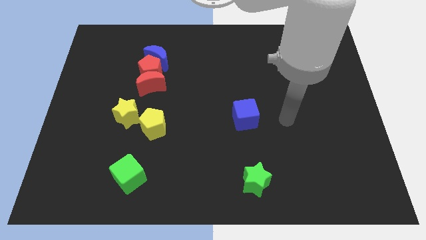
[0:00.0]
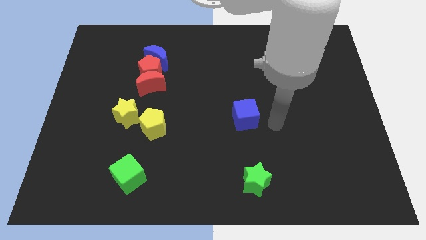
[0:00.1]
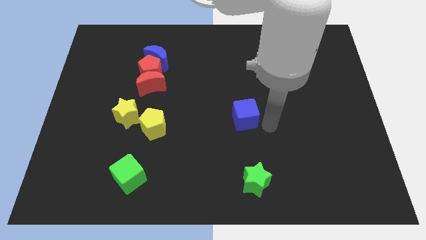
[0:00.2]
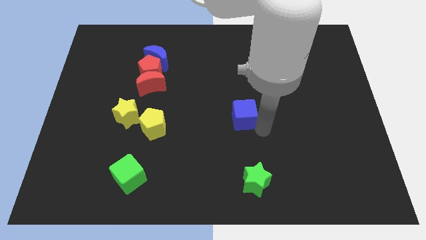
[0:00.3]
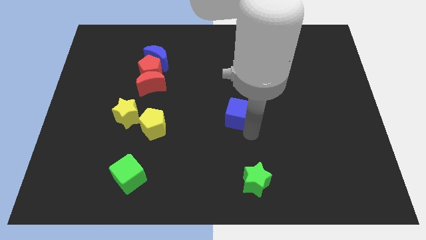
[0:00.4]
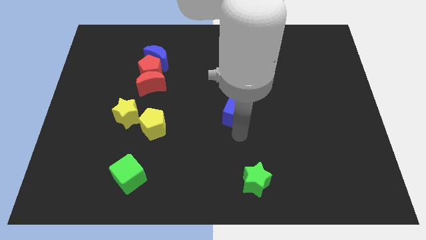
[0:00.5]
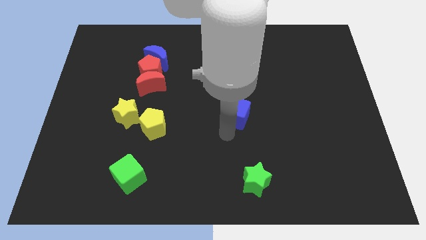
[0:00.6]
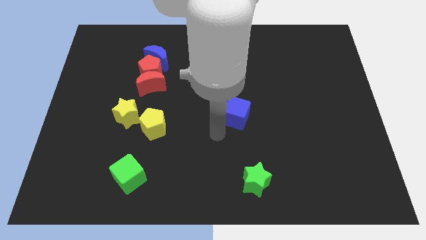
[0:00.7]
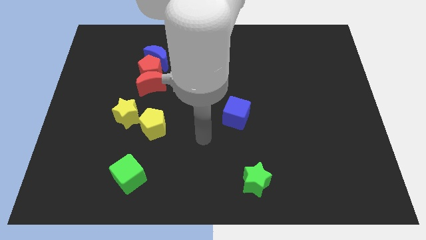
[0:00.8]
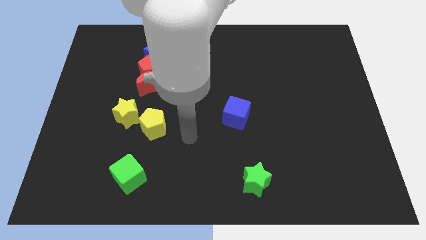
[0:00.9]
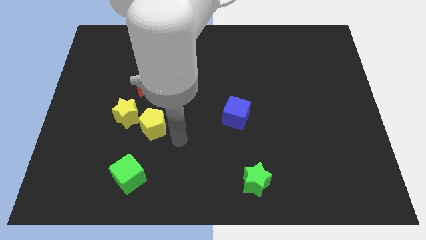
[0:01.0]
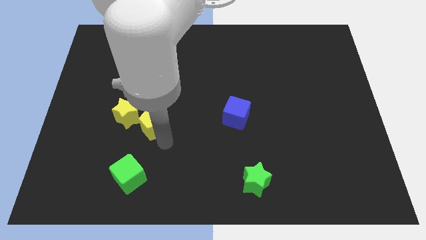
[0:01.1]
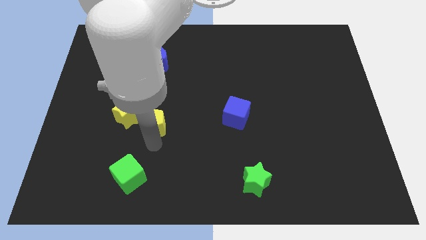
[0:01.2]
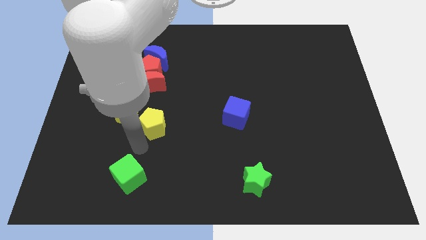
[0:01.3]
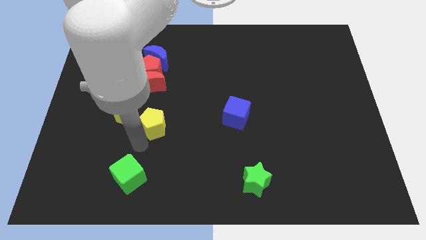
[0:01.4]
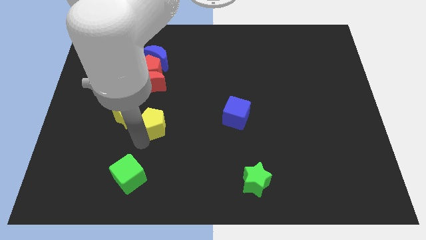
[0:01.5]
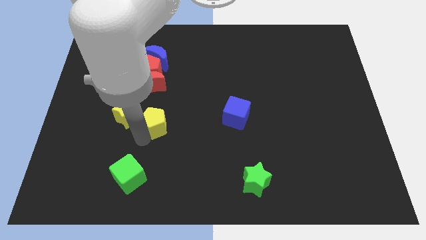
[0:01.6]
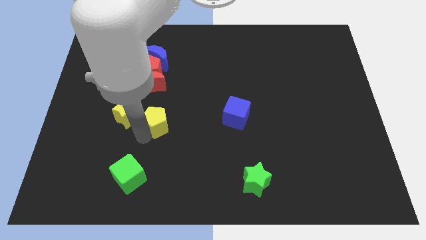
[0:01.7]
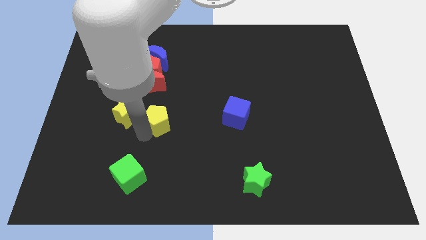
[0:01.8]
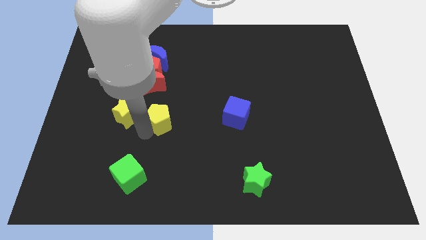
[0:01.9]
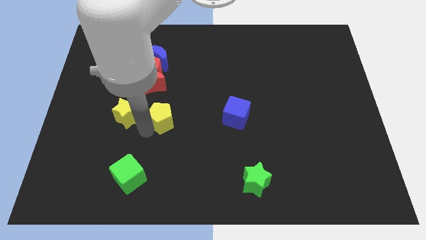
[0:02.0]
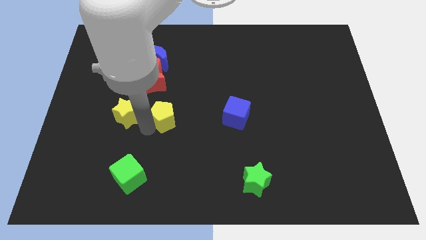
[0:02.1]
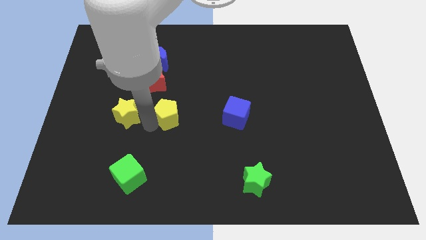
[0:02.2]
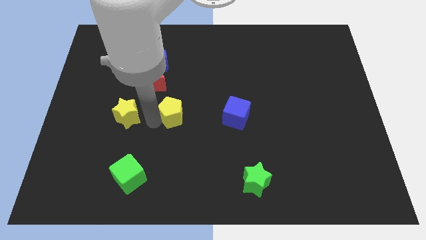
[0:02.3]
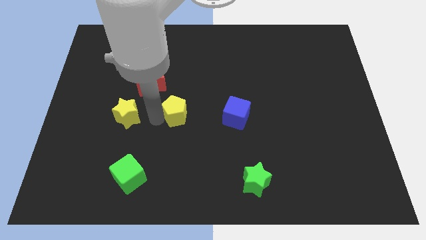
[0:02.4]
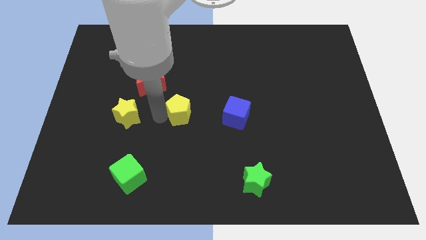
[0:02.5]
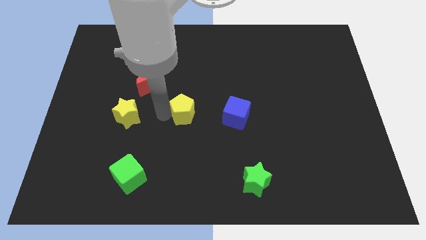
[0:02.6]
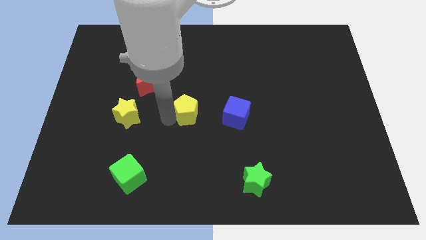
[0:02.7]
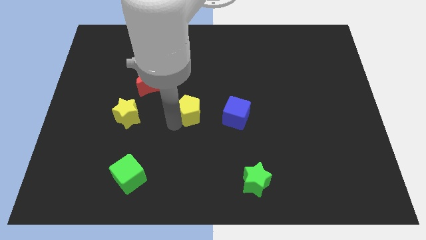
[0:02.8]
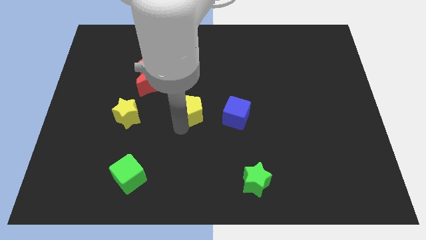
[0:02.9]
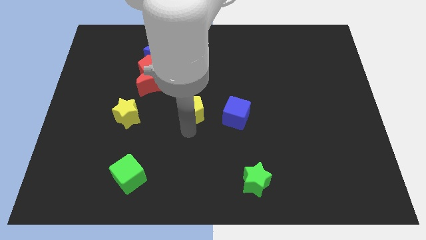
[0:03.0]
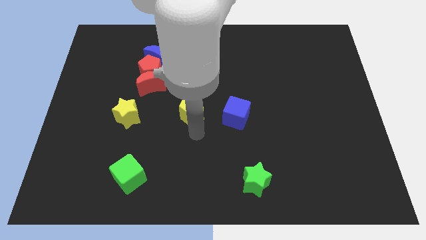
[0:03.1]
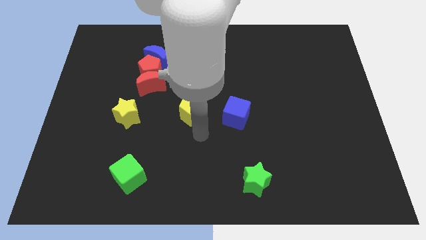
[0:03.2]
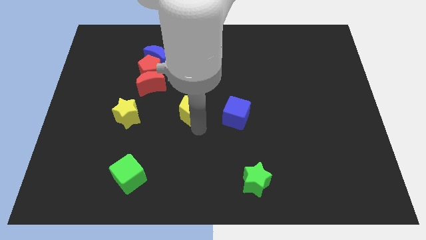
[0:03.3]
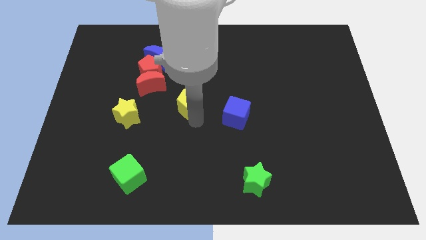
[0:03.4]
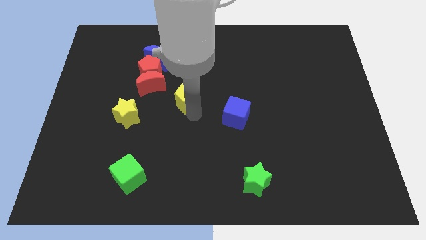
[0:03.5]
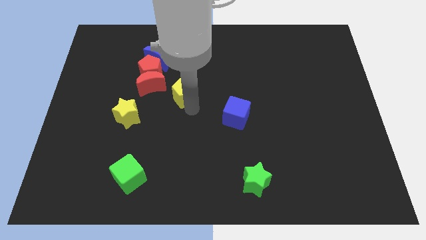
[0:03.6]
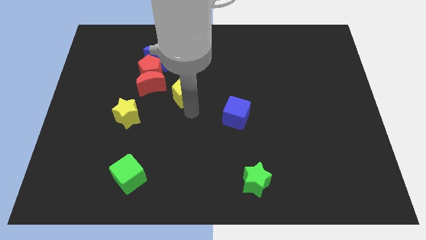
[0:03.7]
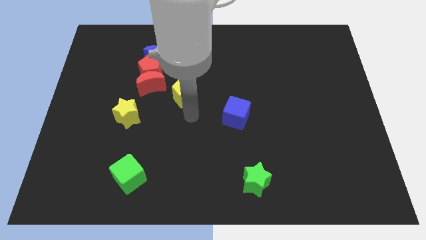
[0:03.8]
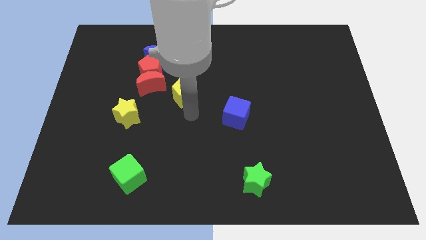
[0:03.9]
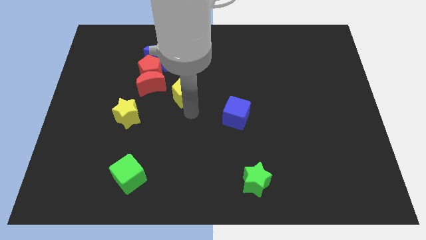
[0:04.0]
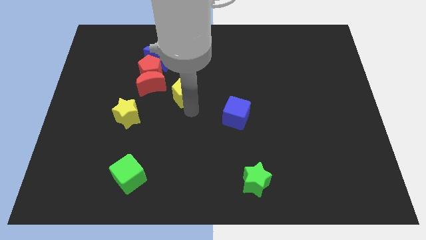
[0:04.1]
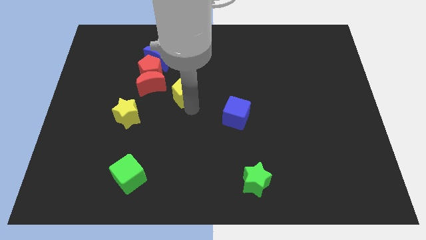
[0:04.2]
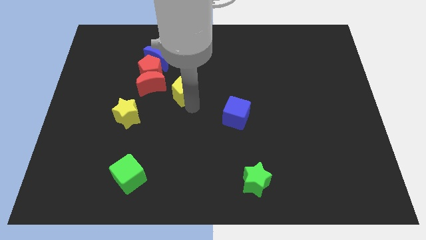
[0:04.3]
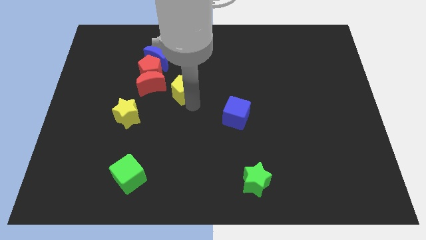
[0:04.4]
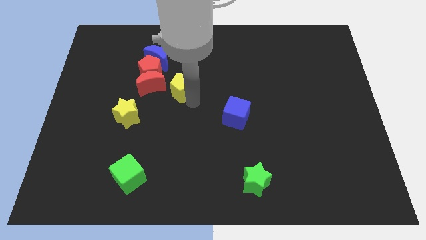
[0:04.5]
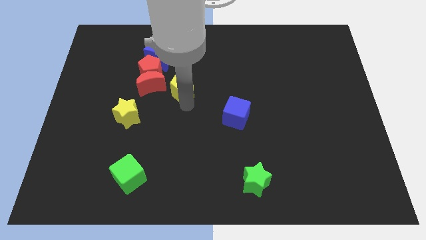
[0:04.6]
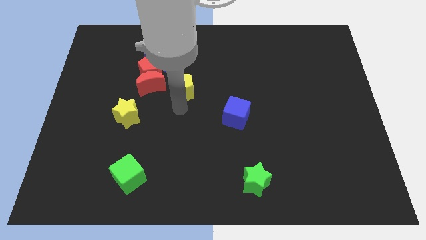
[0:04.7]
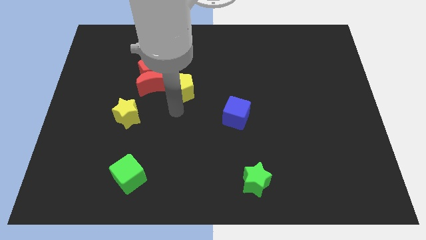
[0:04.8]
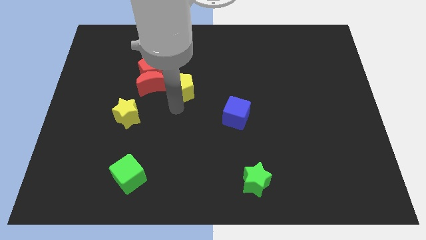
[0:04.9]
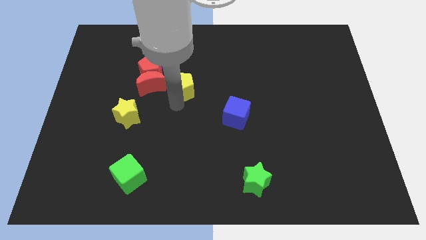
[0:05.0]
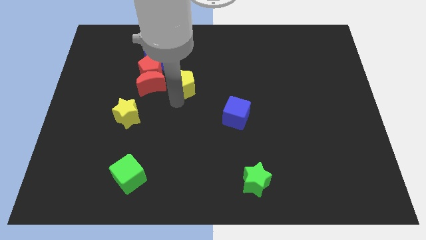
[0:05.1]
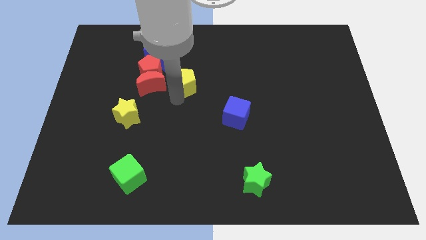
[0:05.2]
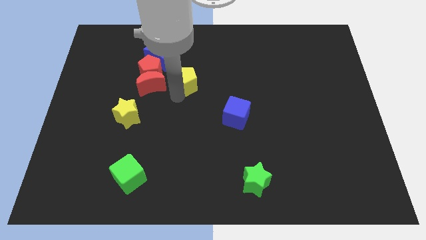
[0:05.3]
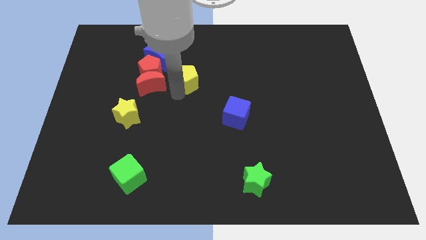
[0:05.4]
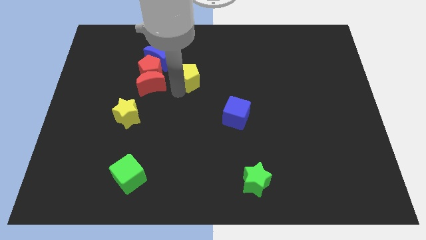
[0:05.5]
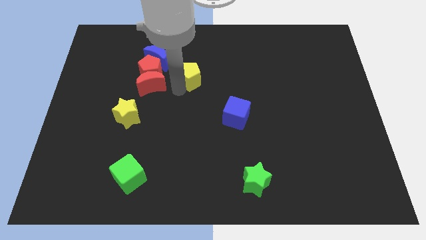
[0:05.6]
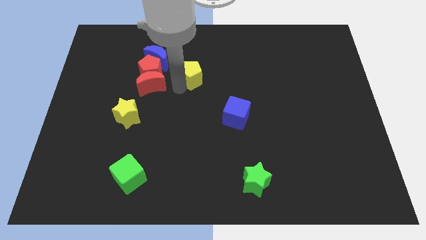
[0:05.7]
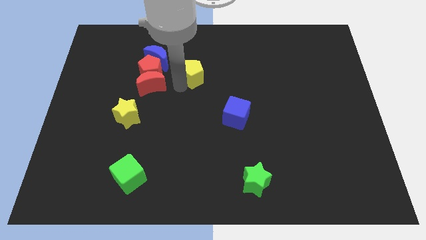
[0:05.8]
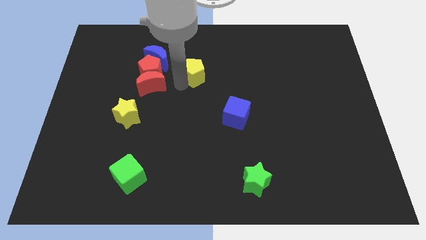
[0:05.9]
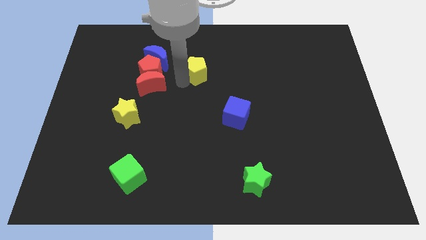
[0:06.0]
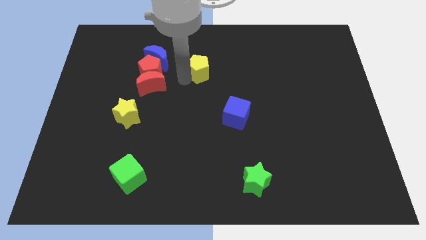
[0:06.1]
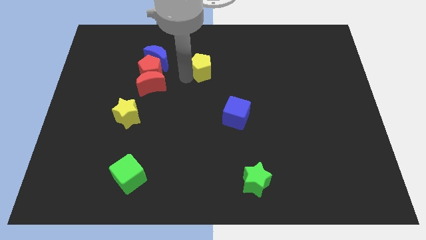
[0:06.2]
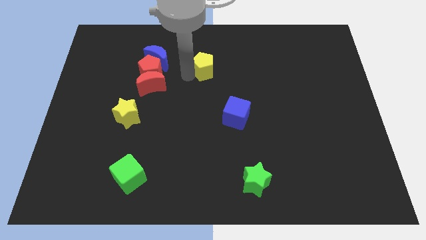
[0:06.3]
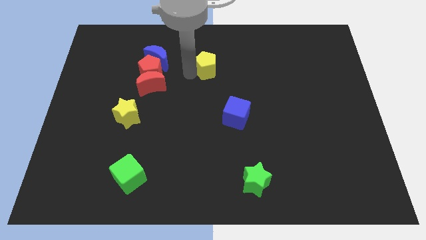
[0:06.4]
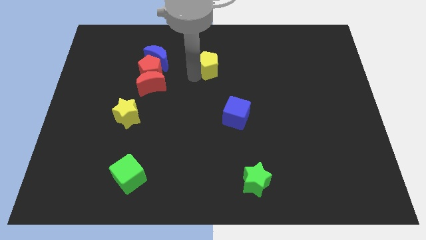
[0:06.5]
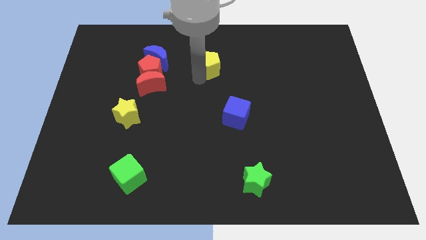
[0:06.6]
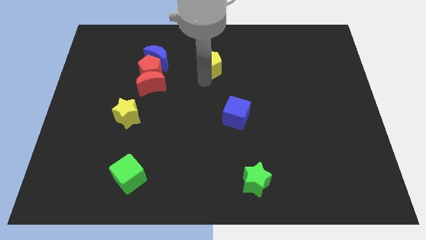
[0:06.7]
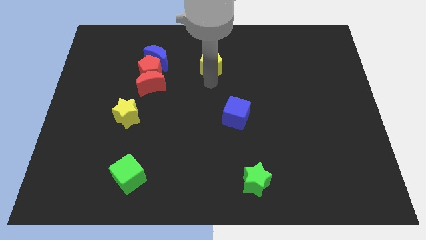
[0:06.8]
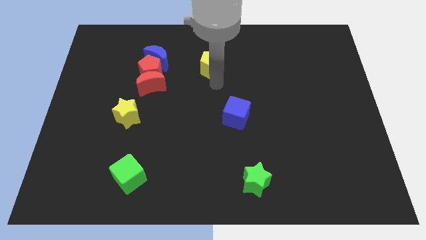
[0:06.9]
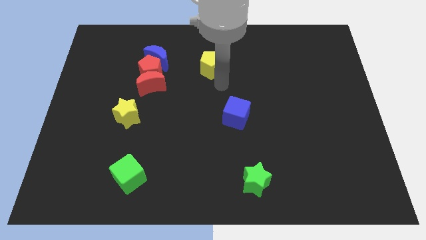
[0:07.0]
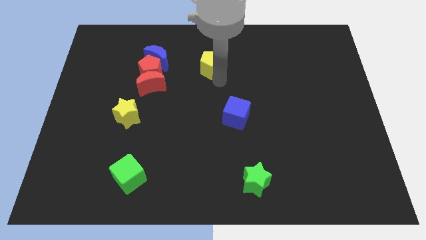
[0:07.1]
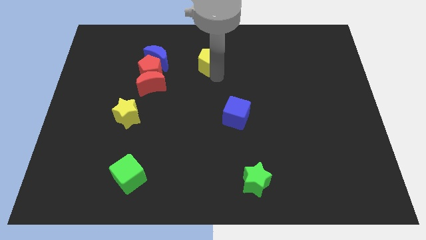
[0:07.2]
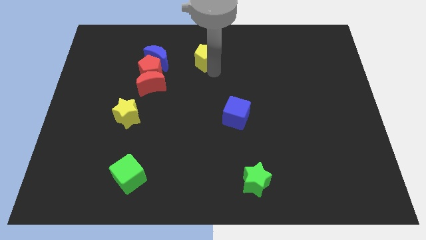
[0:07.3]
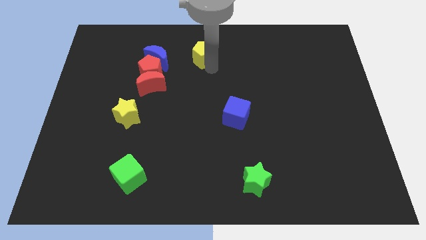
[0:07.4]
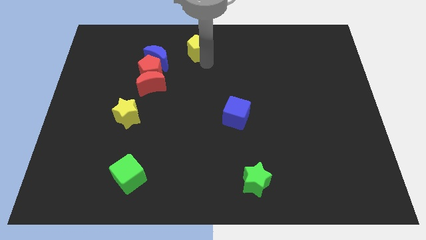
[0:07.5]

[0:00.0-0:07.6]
push the yellow pentagon to the top side

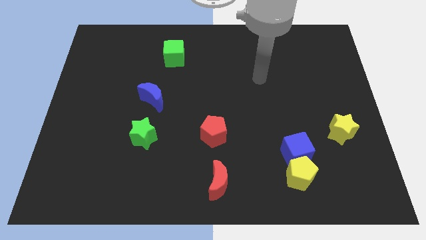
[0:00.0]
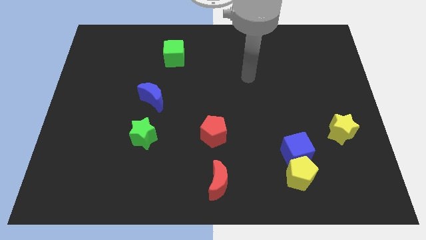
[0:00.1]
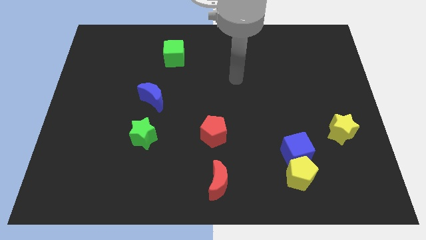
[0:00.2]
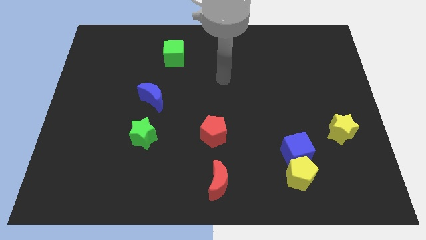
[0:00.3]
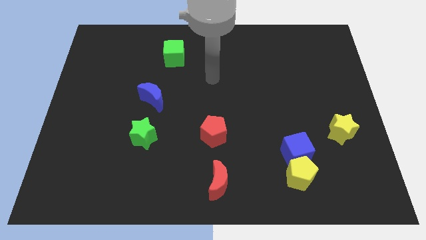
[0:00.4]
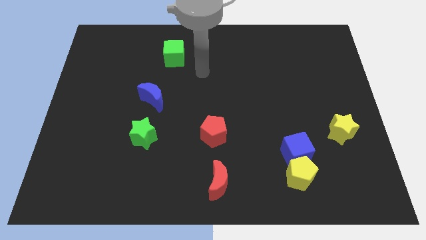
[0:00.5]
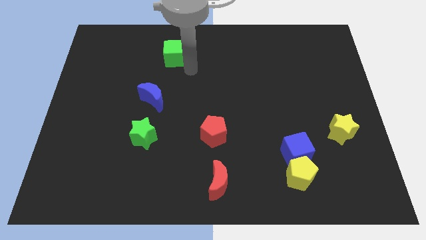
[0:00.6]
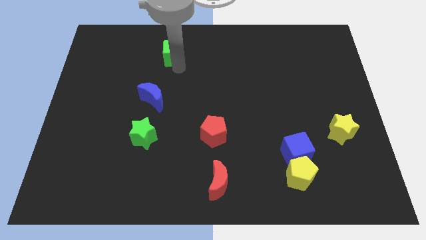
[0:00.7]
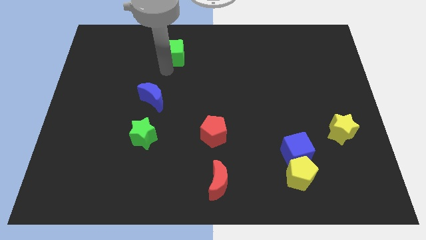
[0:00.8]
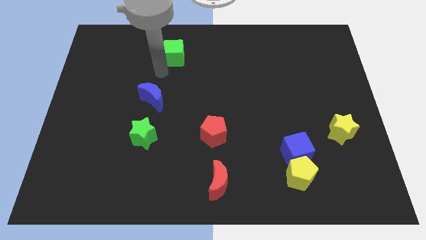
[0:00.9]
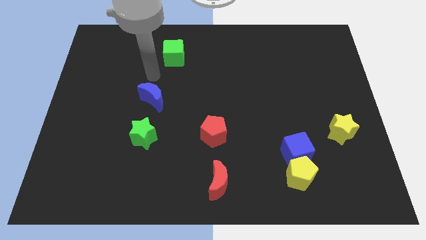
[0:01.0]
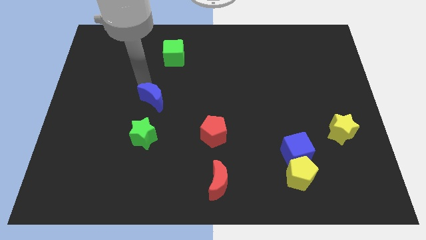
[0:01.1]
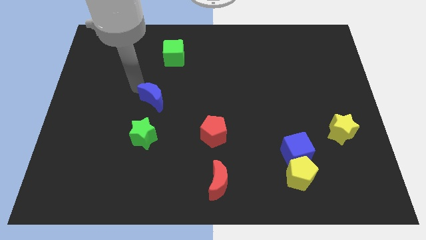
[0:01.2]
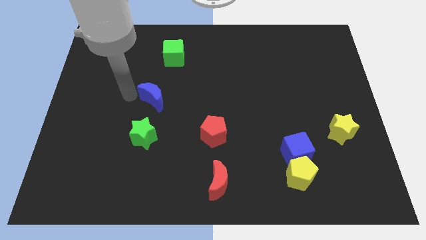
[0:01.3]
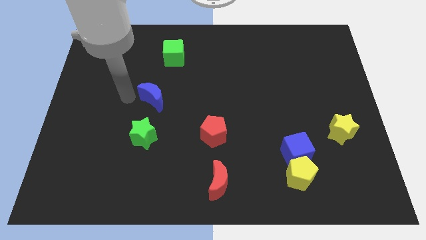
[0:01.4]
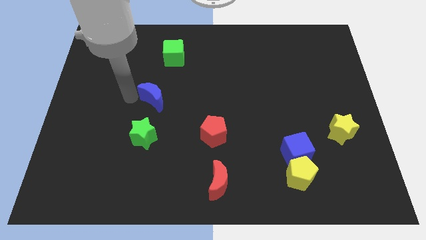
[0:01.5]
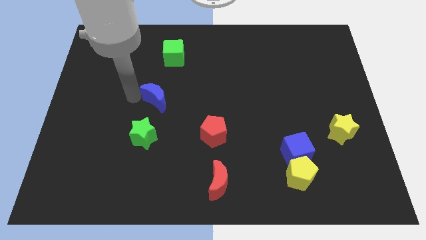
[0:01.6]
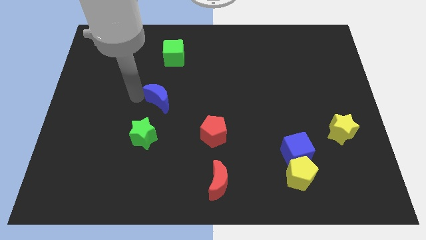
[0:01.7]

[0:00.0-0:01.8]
move the blue moon to the middle
